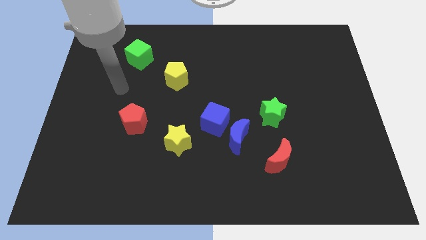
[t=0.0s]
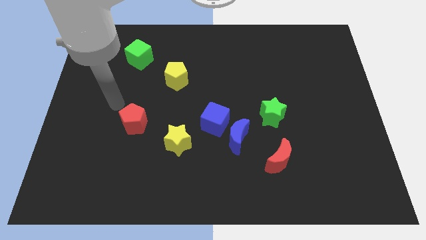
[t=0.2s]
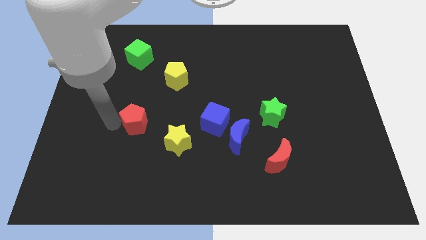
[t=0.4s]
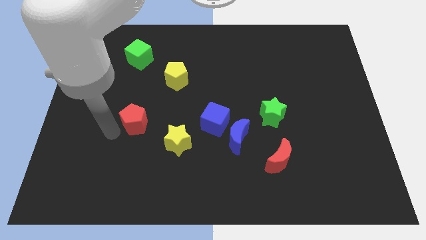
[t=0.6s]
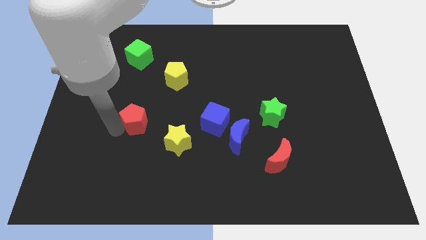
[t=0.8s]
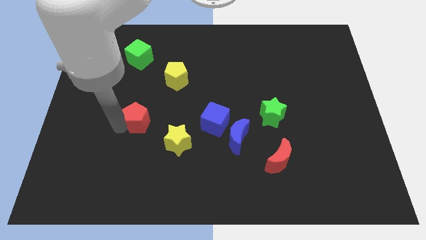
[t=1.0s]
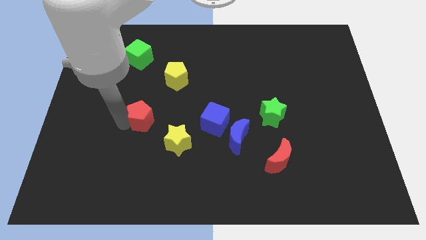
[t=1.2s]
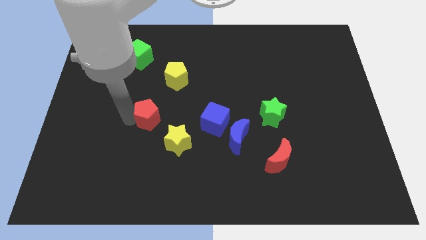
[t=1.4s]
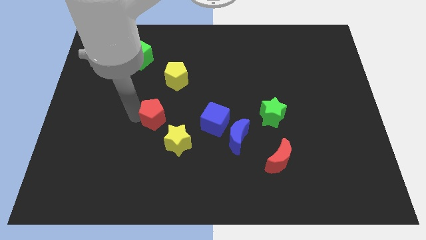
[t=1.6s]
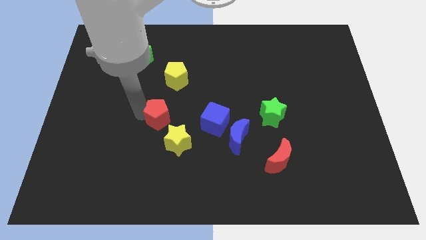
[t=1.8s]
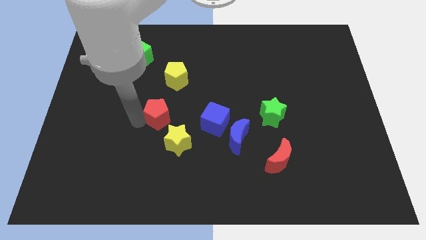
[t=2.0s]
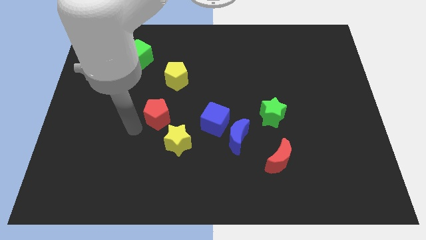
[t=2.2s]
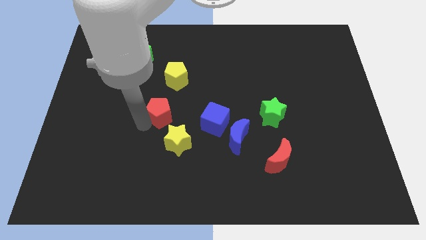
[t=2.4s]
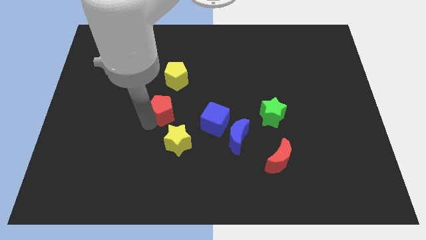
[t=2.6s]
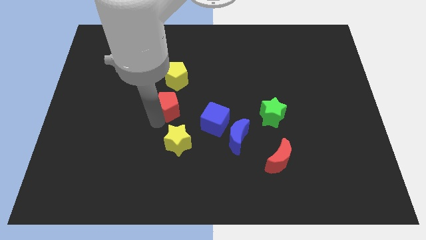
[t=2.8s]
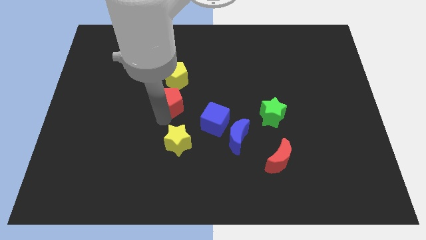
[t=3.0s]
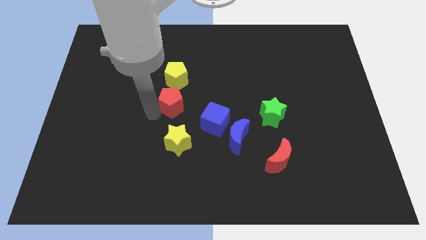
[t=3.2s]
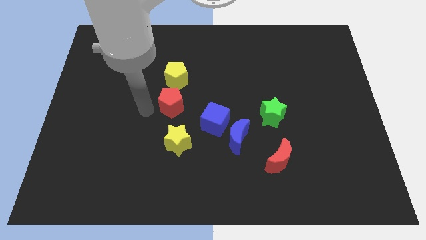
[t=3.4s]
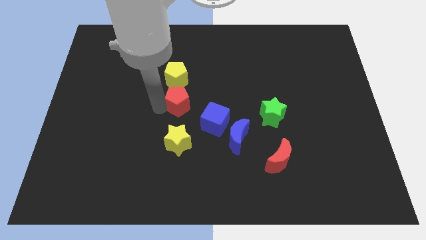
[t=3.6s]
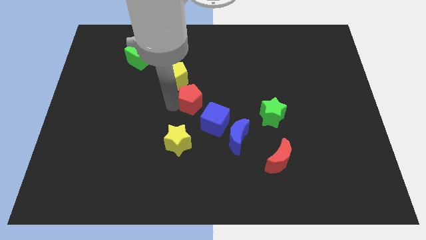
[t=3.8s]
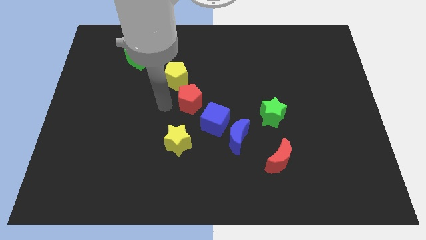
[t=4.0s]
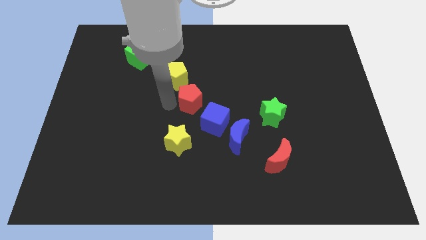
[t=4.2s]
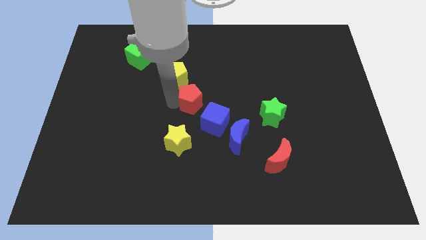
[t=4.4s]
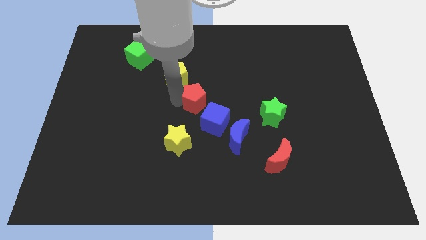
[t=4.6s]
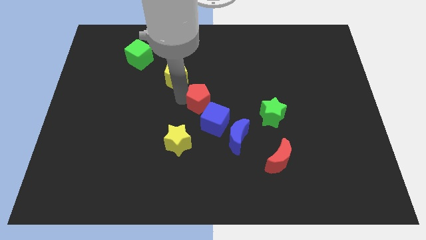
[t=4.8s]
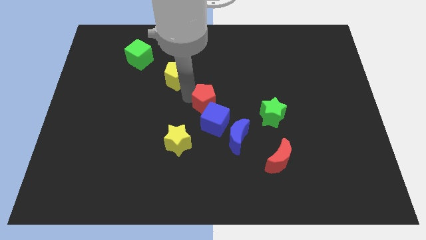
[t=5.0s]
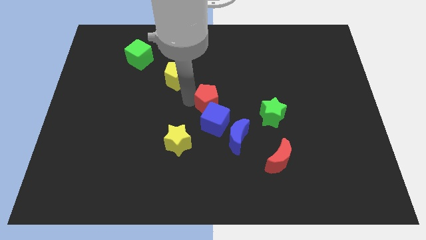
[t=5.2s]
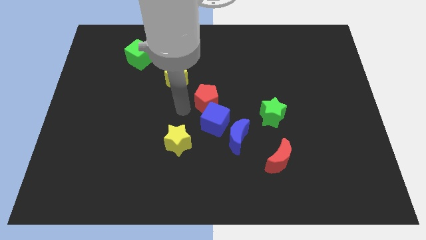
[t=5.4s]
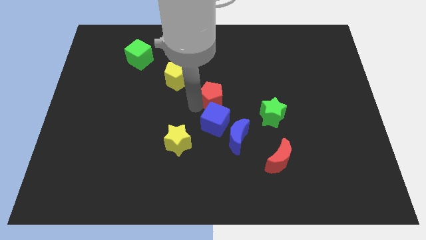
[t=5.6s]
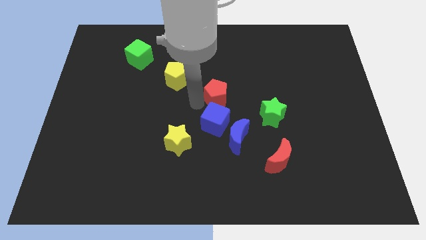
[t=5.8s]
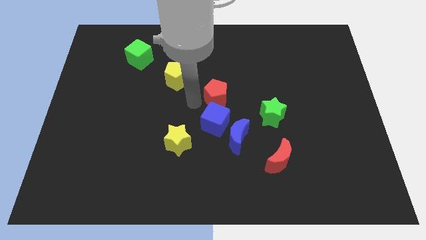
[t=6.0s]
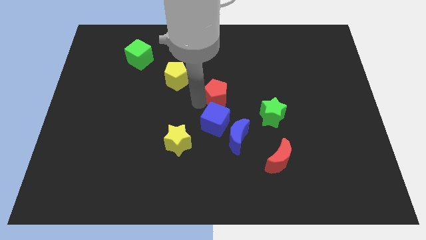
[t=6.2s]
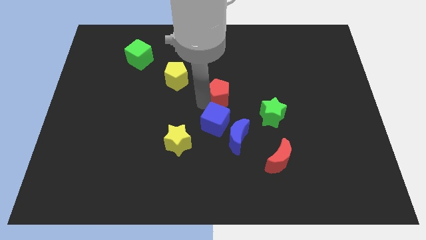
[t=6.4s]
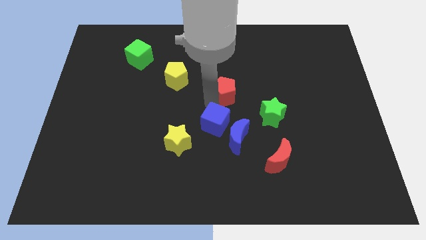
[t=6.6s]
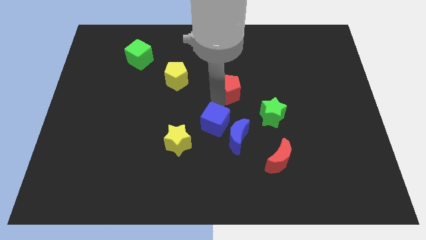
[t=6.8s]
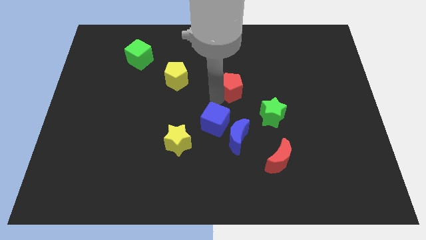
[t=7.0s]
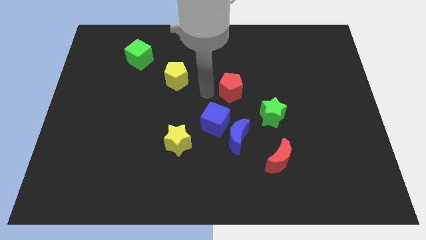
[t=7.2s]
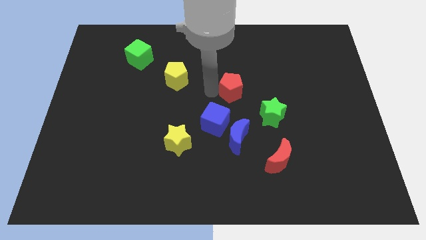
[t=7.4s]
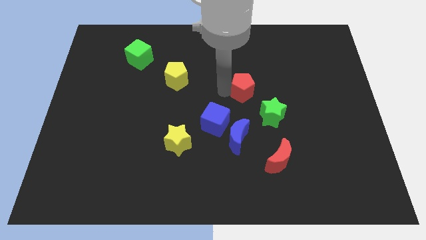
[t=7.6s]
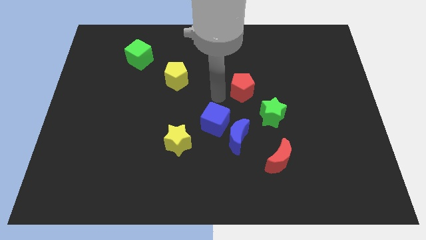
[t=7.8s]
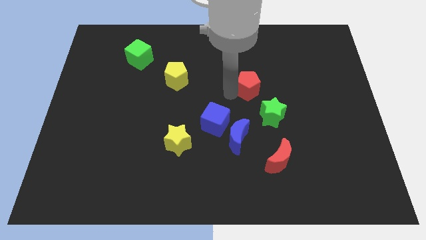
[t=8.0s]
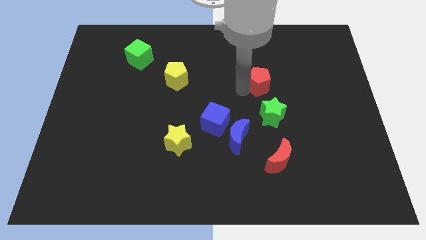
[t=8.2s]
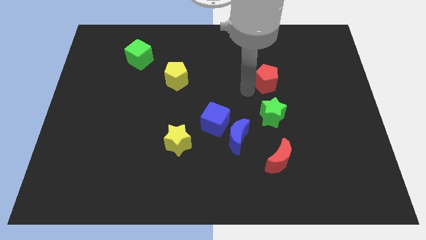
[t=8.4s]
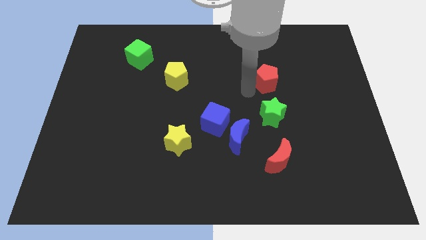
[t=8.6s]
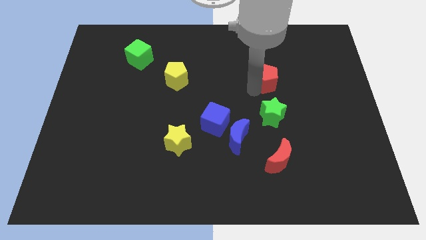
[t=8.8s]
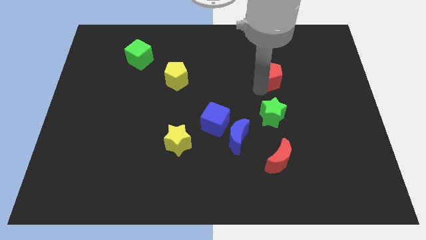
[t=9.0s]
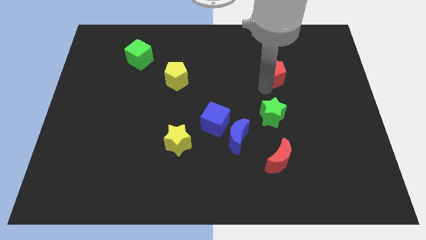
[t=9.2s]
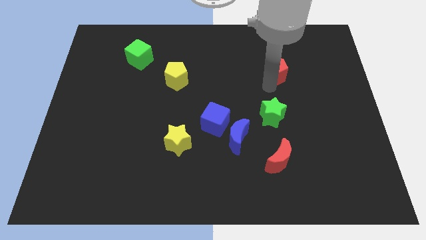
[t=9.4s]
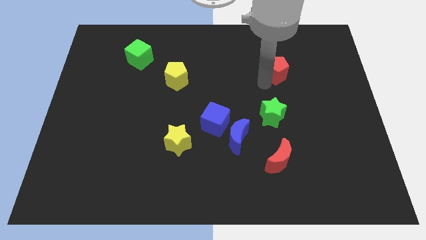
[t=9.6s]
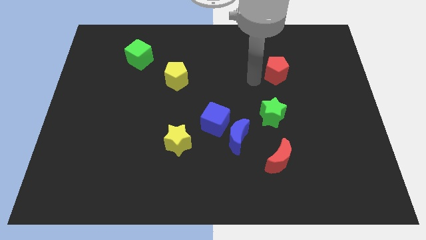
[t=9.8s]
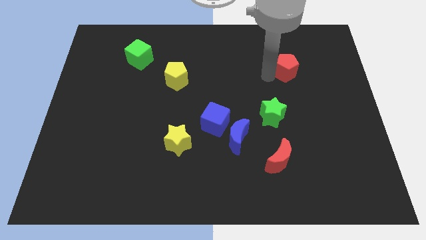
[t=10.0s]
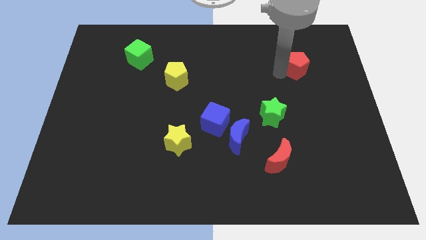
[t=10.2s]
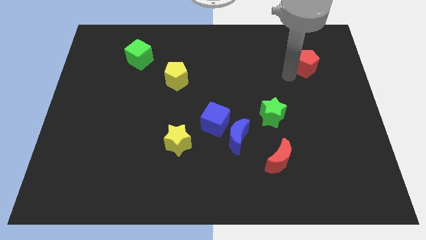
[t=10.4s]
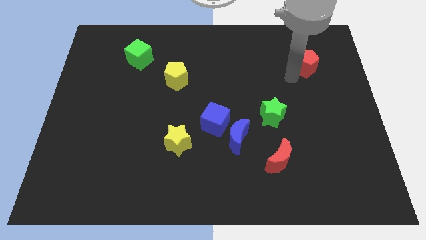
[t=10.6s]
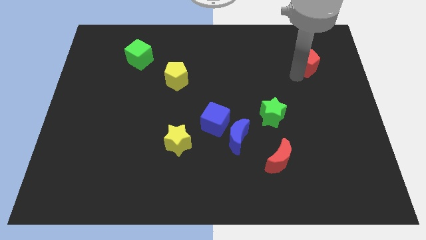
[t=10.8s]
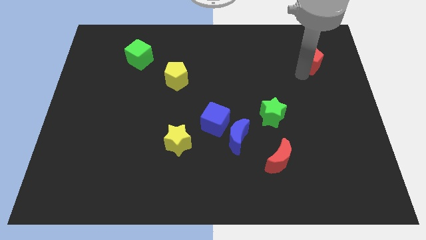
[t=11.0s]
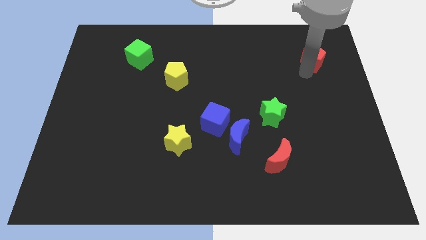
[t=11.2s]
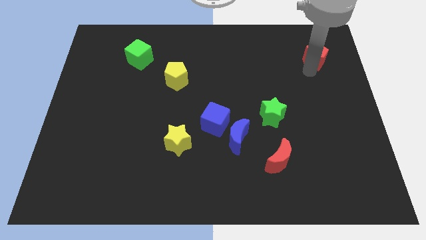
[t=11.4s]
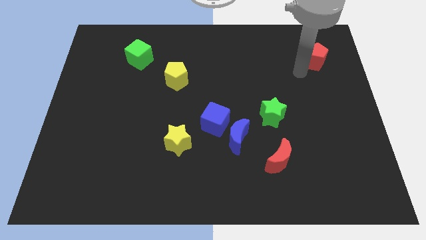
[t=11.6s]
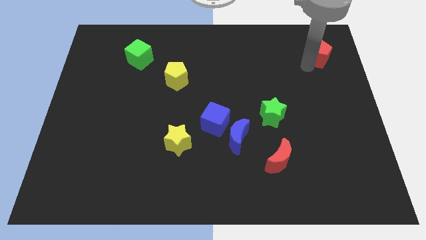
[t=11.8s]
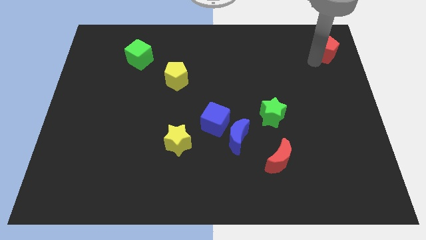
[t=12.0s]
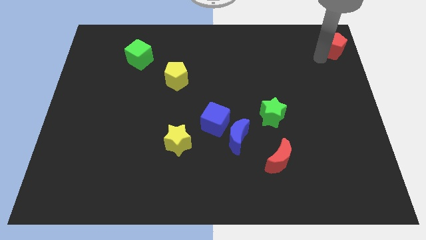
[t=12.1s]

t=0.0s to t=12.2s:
move the red pentagon to the top right of the board

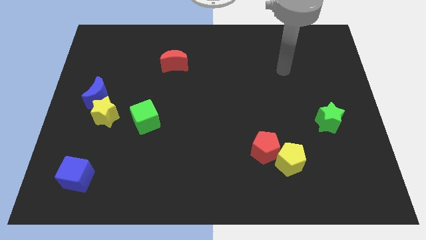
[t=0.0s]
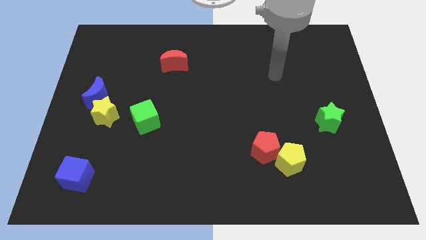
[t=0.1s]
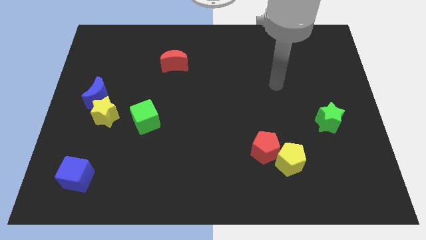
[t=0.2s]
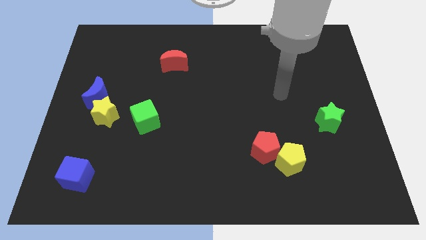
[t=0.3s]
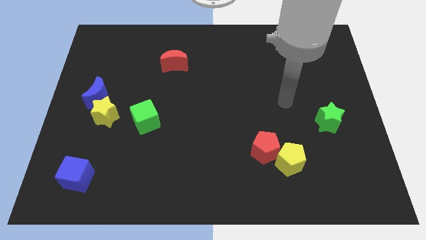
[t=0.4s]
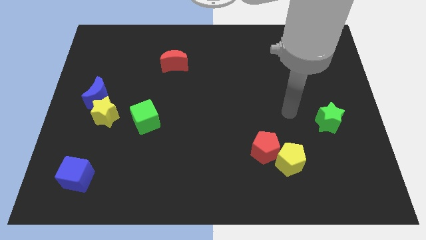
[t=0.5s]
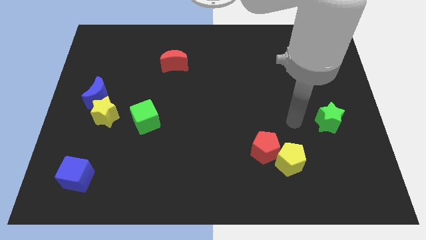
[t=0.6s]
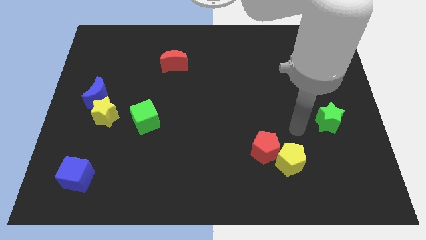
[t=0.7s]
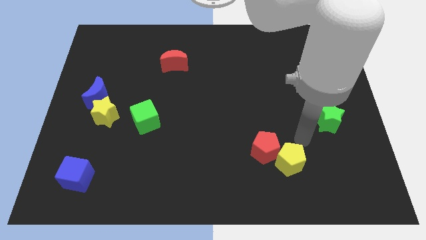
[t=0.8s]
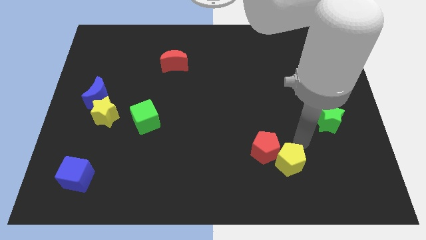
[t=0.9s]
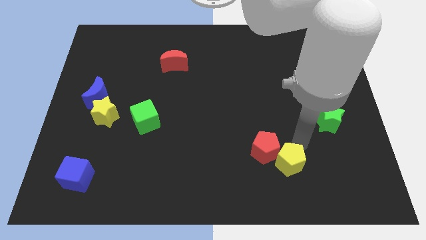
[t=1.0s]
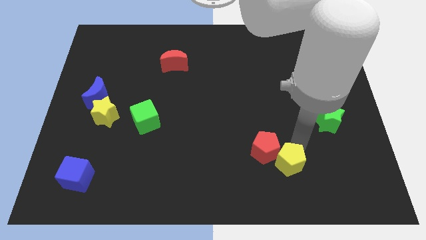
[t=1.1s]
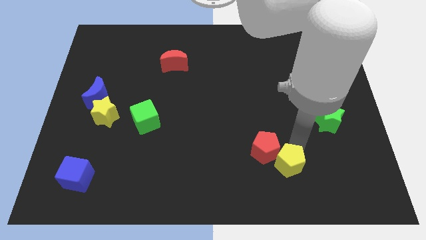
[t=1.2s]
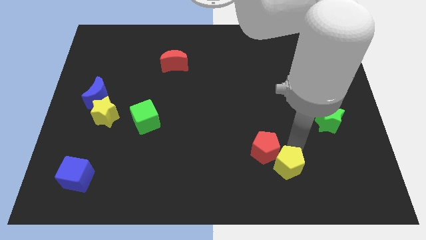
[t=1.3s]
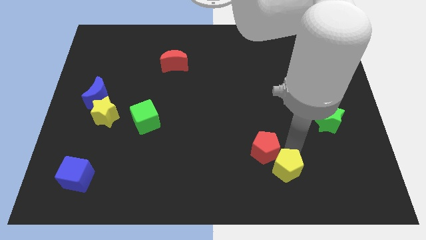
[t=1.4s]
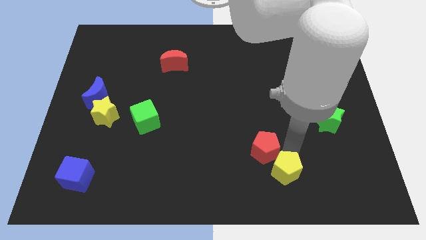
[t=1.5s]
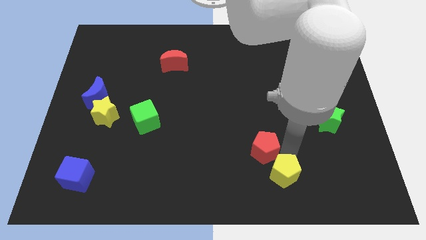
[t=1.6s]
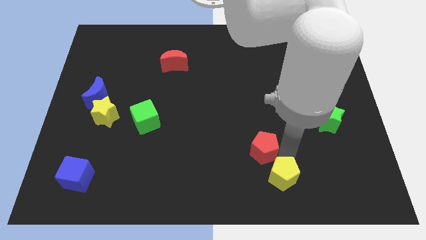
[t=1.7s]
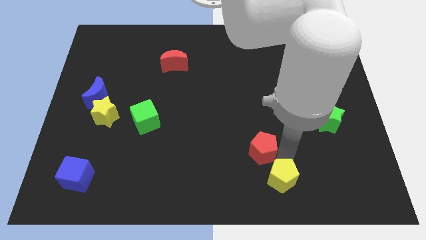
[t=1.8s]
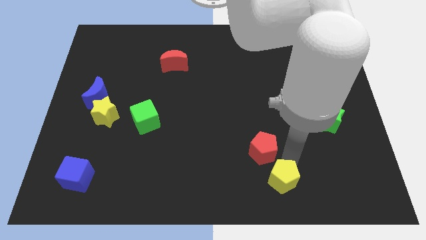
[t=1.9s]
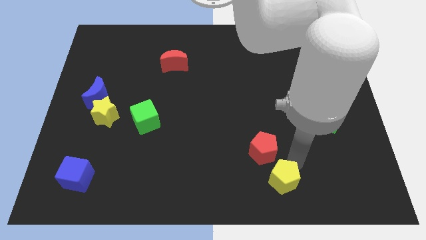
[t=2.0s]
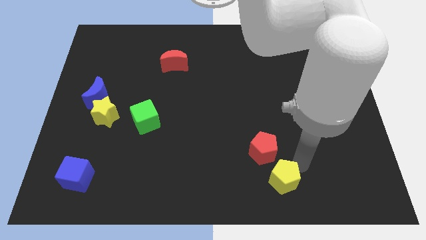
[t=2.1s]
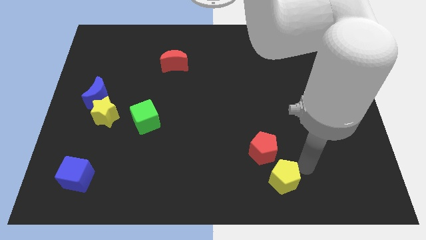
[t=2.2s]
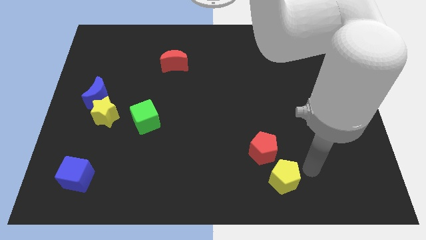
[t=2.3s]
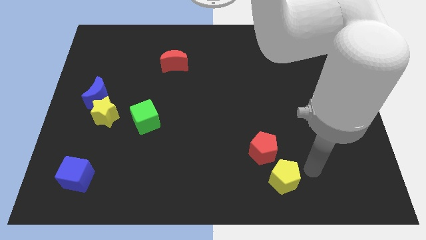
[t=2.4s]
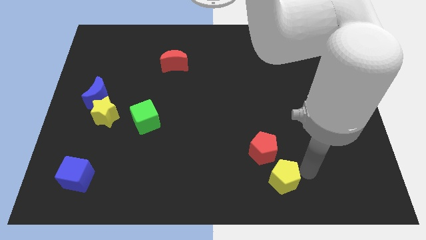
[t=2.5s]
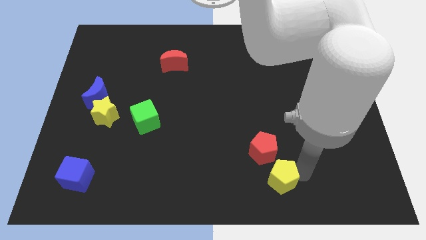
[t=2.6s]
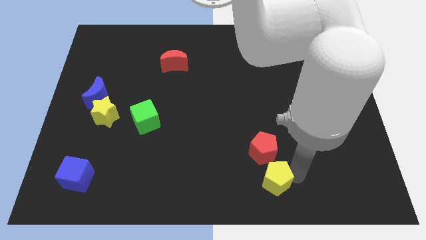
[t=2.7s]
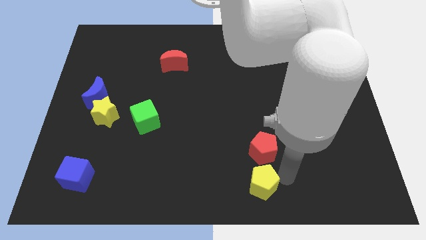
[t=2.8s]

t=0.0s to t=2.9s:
put the yellow pentagon to the bottom side
